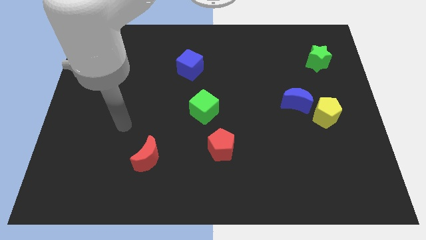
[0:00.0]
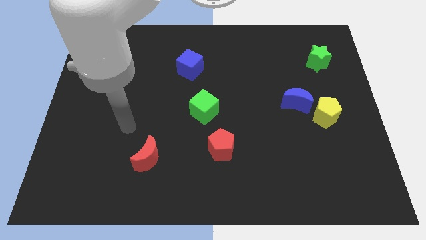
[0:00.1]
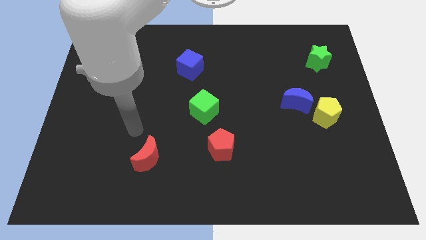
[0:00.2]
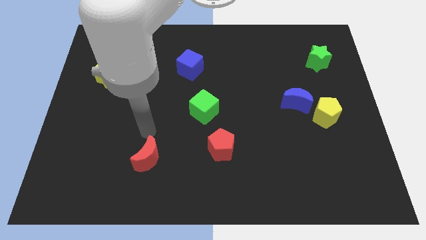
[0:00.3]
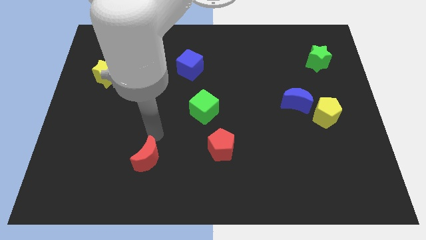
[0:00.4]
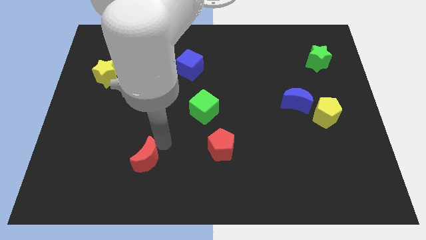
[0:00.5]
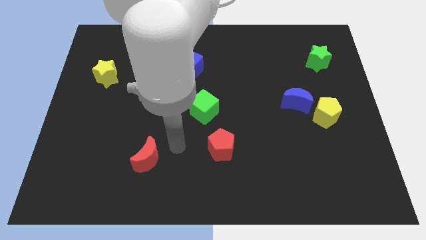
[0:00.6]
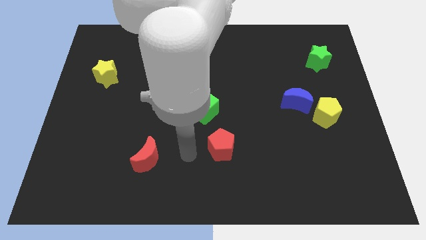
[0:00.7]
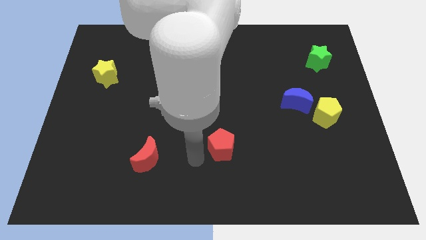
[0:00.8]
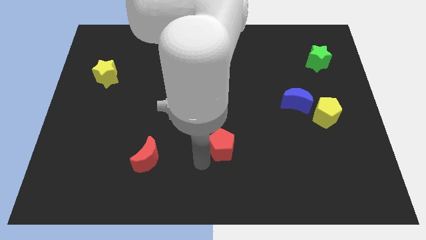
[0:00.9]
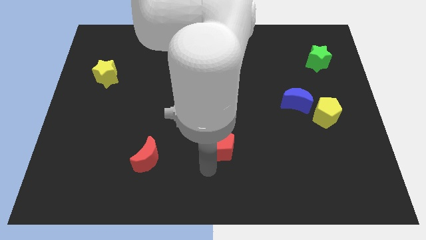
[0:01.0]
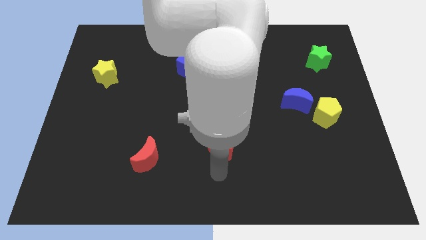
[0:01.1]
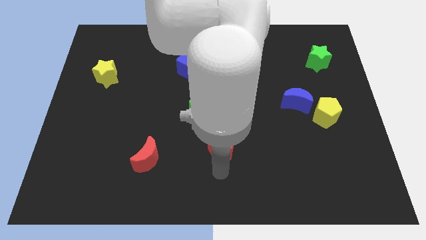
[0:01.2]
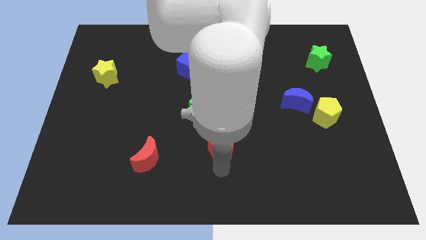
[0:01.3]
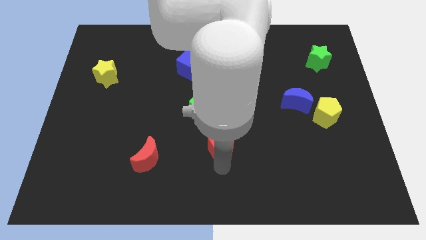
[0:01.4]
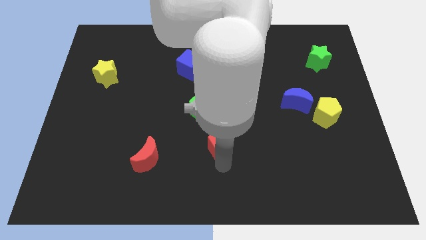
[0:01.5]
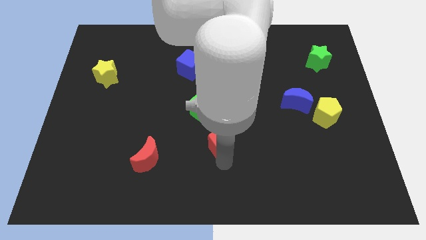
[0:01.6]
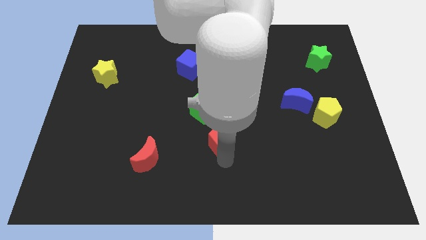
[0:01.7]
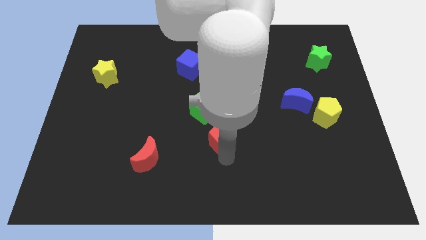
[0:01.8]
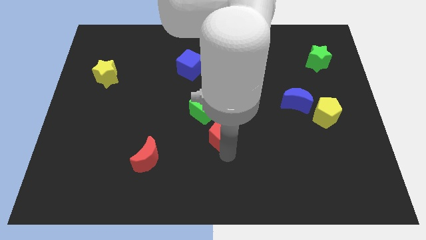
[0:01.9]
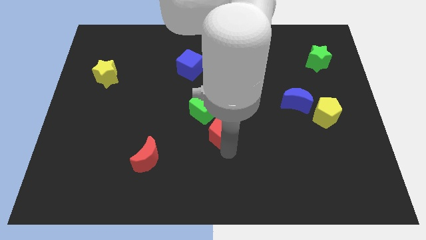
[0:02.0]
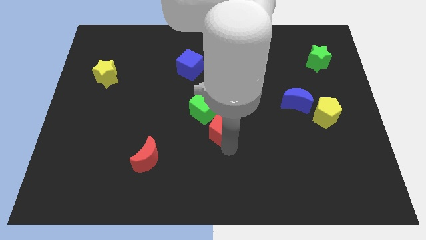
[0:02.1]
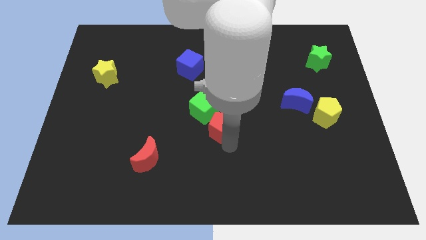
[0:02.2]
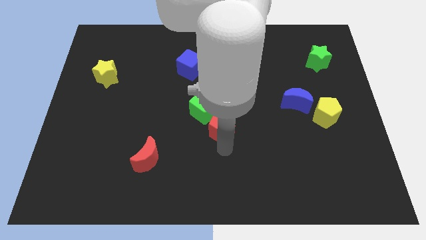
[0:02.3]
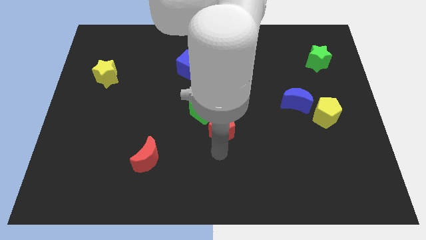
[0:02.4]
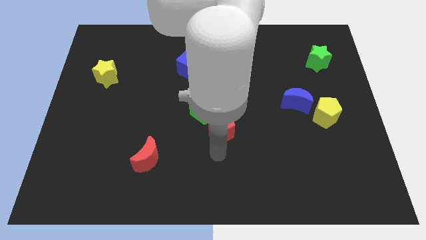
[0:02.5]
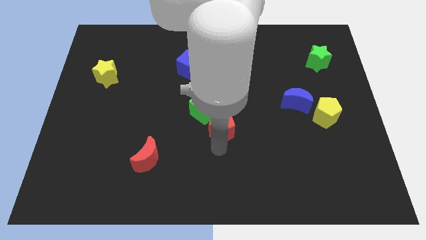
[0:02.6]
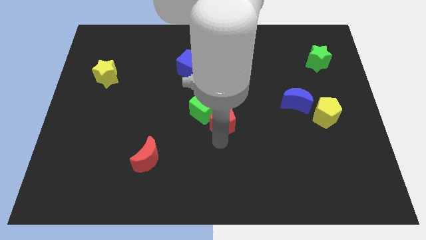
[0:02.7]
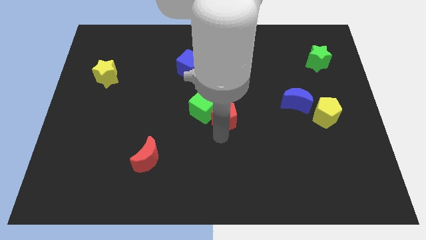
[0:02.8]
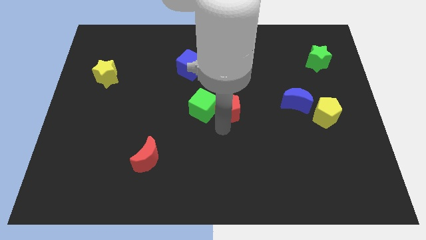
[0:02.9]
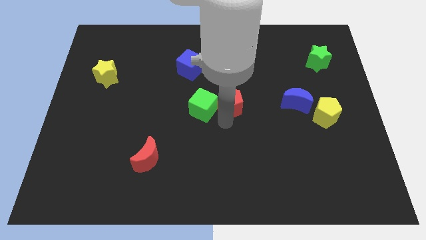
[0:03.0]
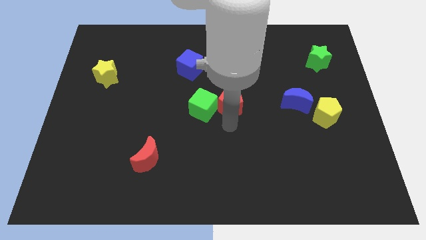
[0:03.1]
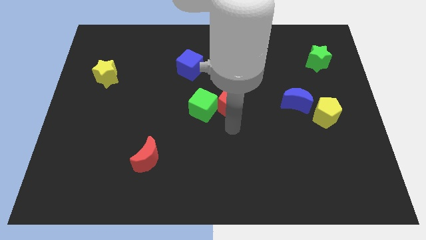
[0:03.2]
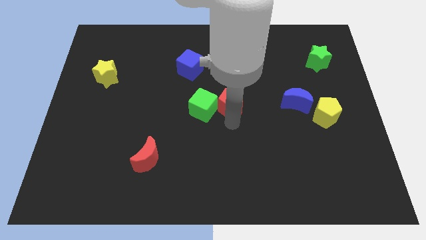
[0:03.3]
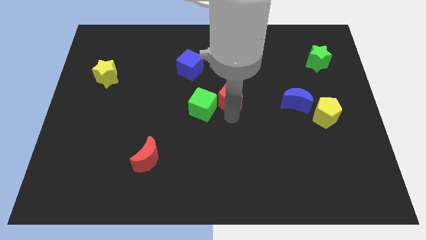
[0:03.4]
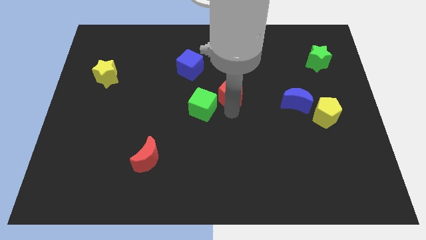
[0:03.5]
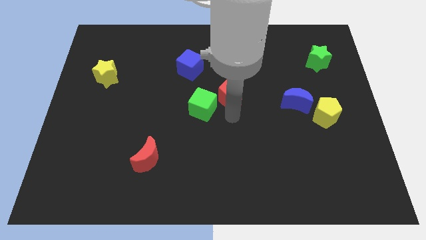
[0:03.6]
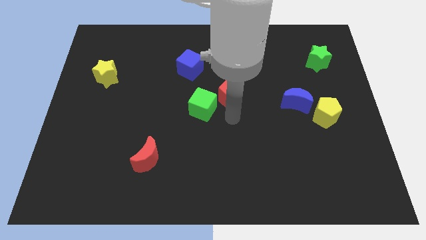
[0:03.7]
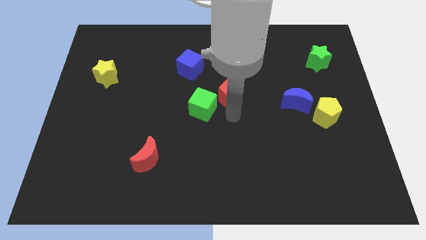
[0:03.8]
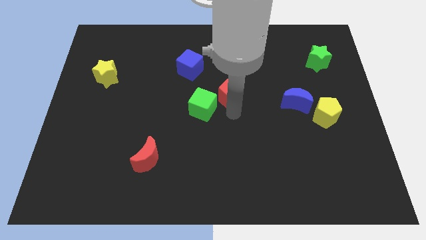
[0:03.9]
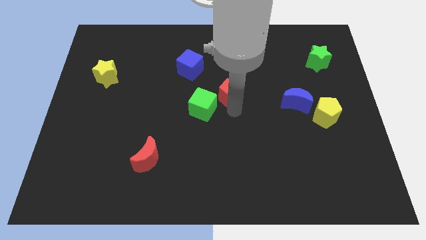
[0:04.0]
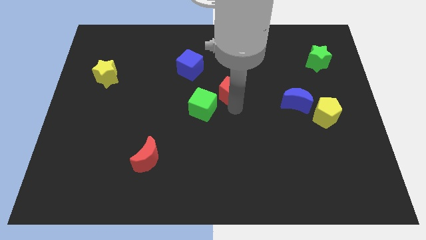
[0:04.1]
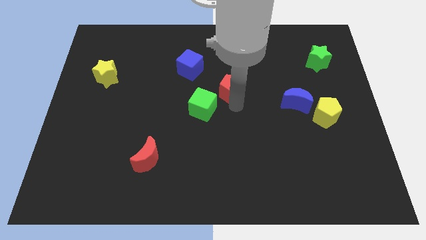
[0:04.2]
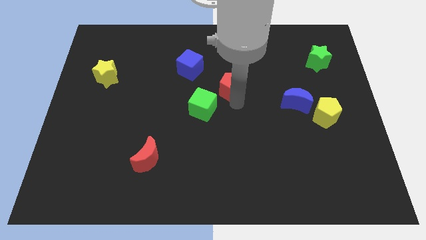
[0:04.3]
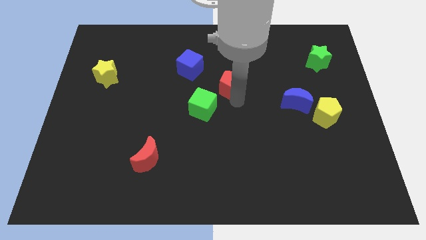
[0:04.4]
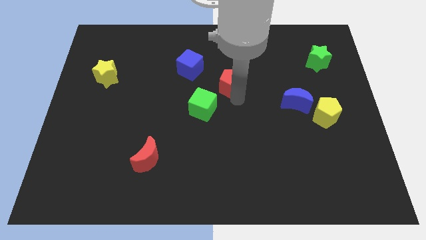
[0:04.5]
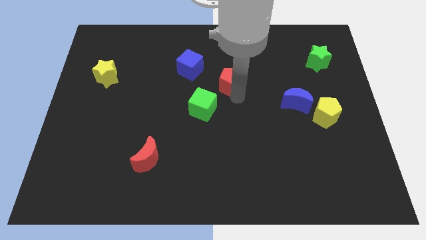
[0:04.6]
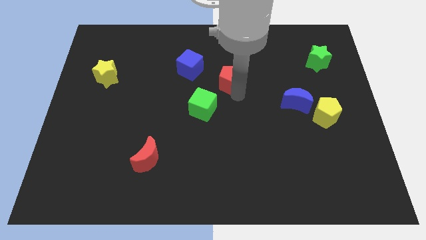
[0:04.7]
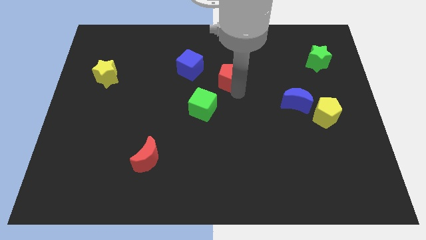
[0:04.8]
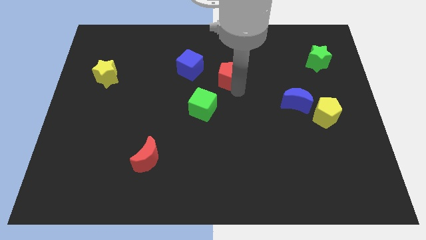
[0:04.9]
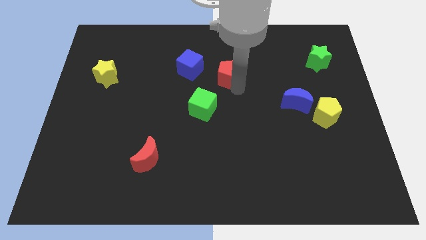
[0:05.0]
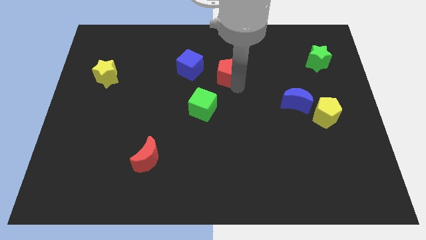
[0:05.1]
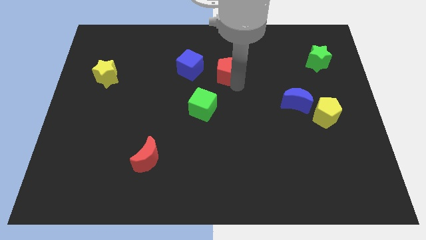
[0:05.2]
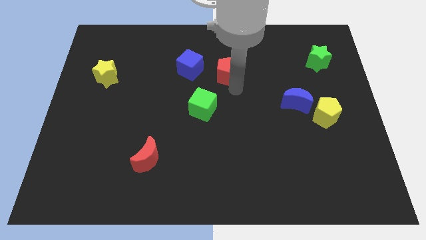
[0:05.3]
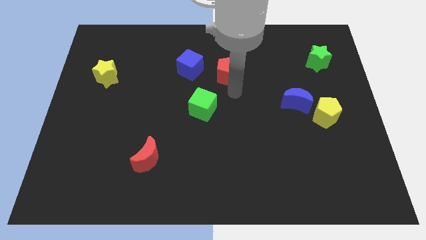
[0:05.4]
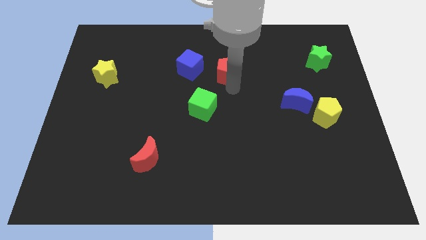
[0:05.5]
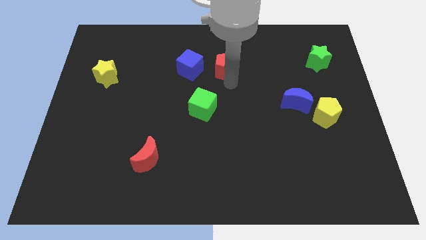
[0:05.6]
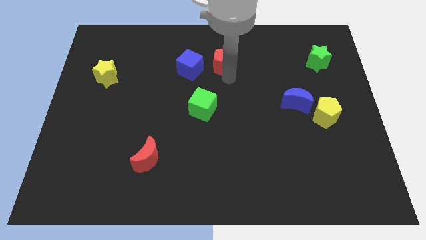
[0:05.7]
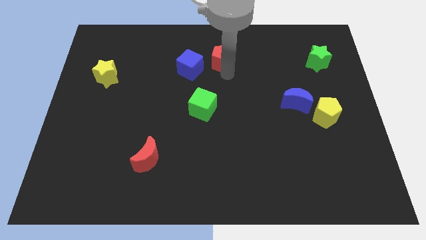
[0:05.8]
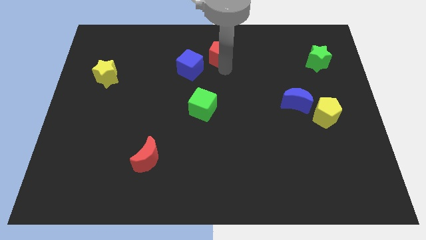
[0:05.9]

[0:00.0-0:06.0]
put the red pentagon to the top side
